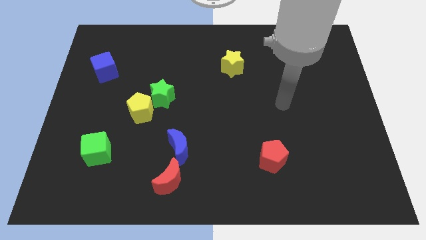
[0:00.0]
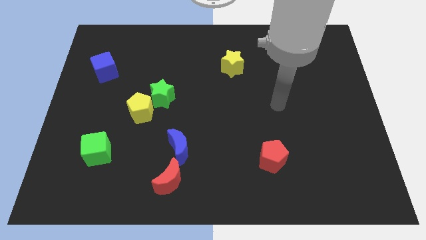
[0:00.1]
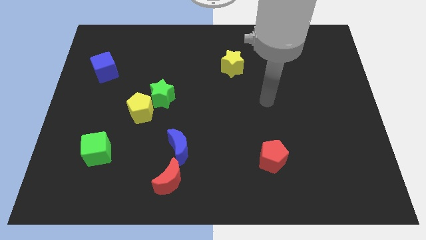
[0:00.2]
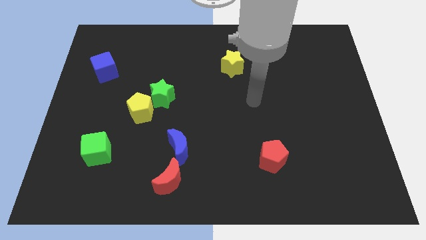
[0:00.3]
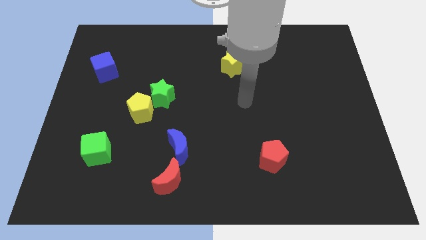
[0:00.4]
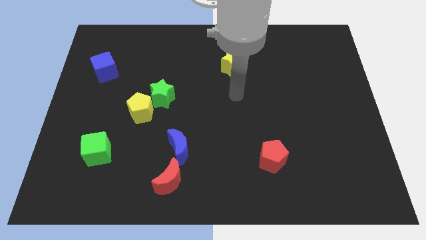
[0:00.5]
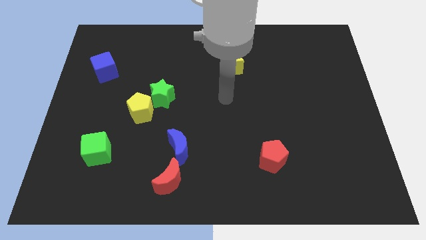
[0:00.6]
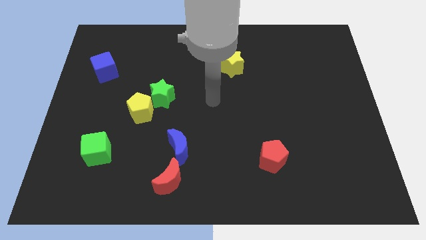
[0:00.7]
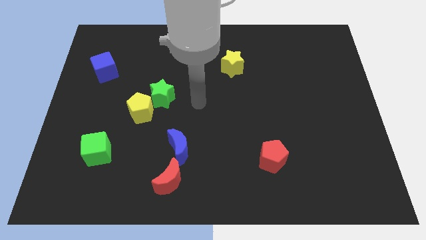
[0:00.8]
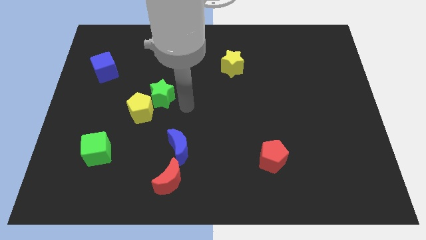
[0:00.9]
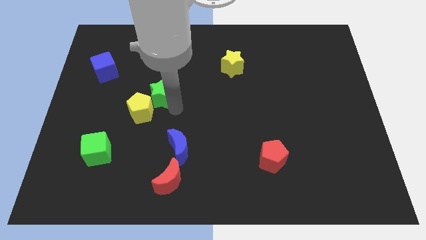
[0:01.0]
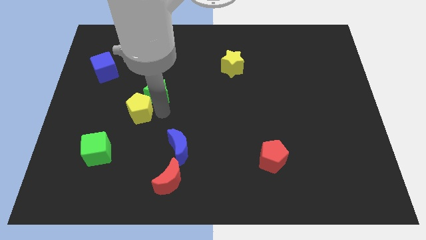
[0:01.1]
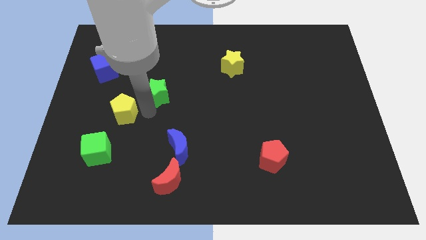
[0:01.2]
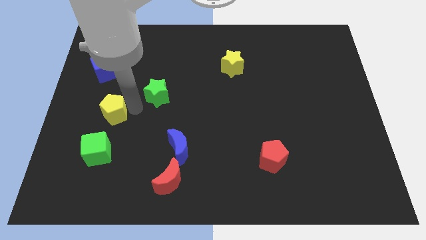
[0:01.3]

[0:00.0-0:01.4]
pull the green star apart from the yellow pentagon

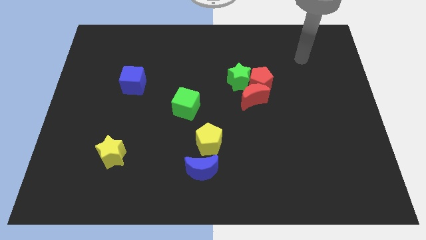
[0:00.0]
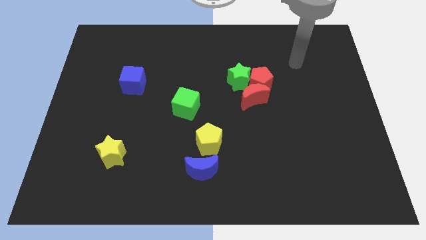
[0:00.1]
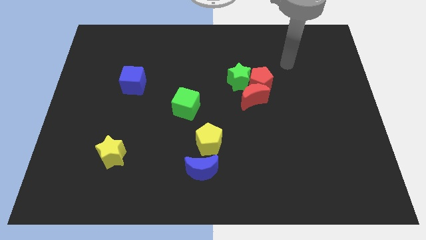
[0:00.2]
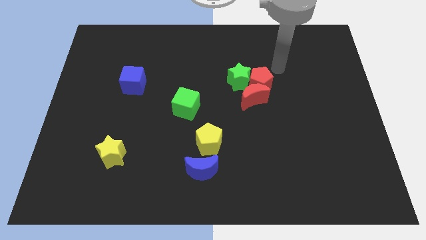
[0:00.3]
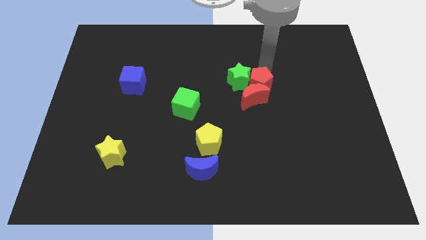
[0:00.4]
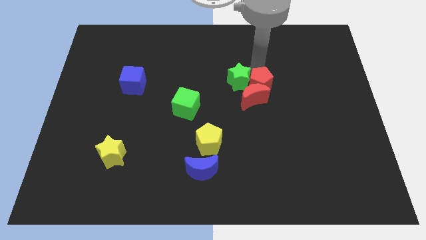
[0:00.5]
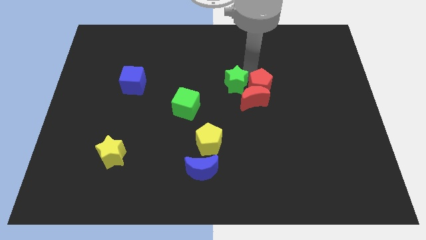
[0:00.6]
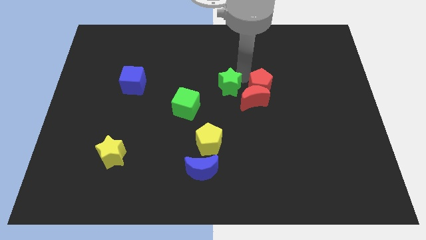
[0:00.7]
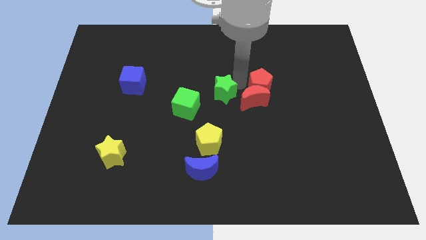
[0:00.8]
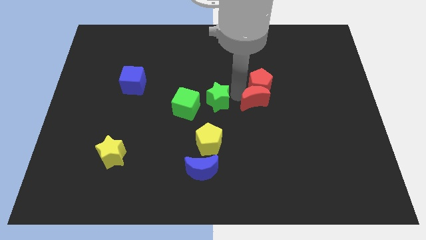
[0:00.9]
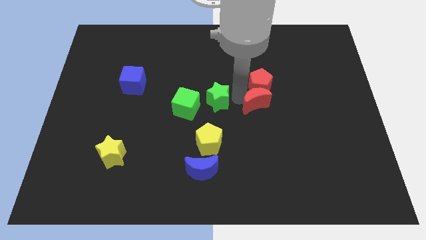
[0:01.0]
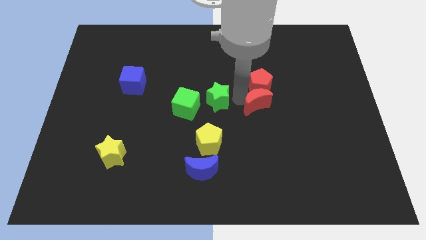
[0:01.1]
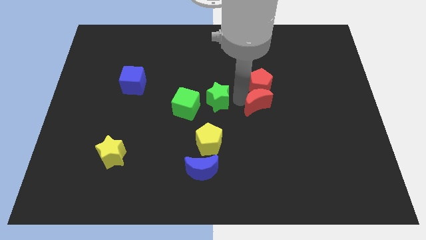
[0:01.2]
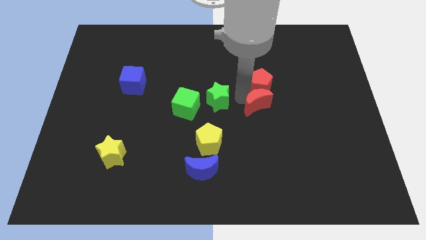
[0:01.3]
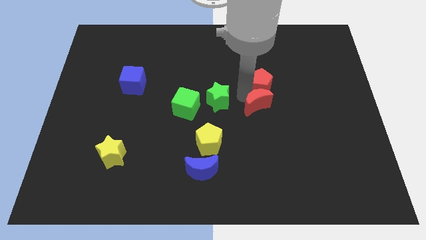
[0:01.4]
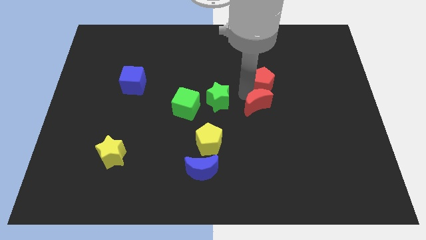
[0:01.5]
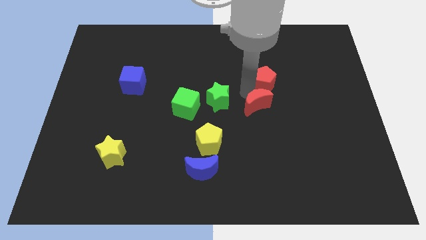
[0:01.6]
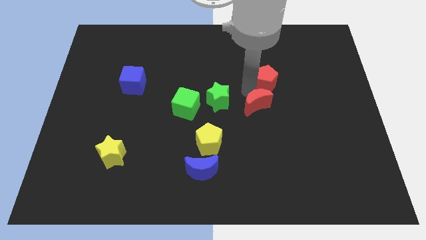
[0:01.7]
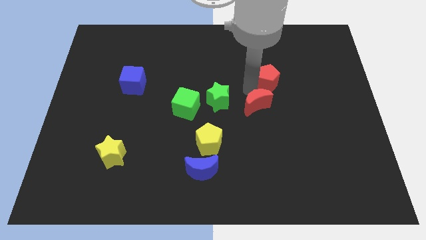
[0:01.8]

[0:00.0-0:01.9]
pull the red pentagon apart from the red moon and green star

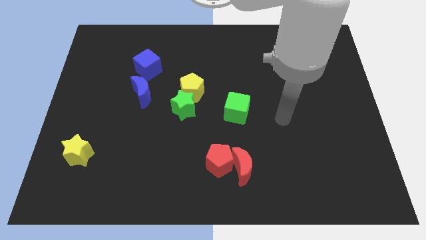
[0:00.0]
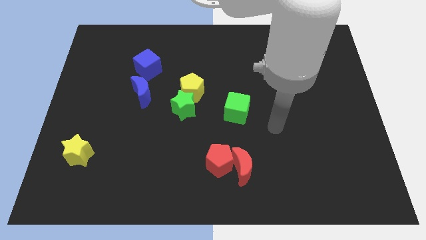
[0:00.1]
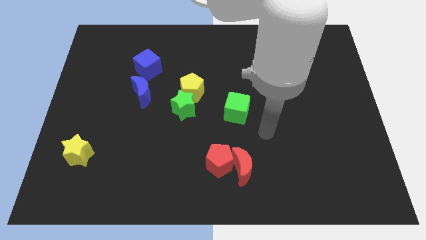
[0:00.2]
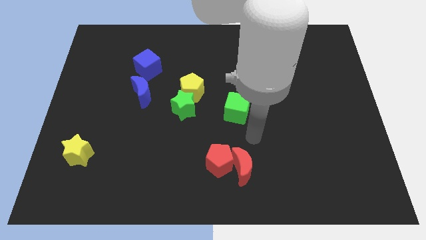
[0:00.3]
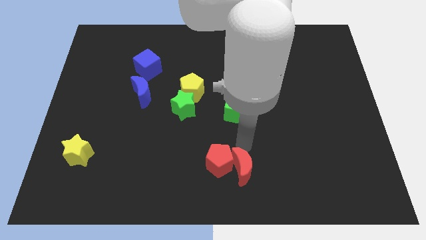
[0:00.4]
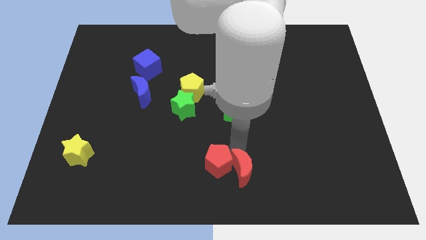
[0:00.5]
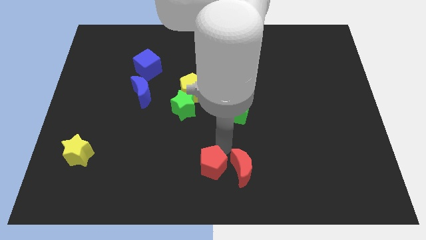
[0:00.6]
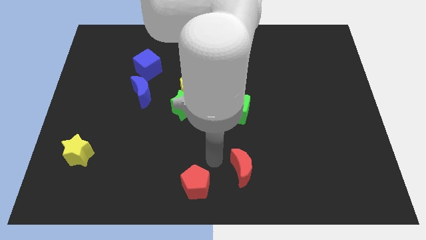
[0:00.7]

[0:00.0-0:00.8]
pull the red moon apart from the red pentagon

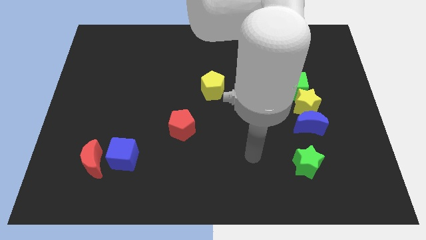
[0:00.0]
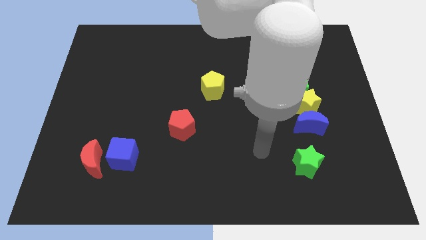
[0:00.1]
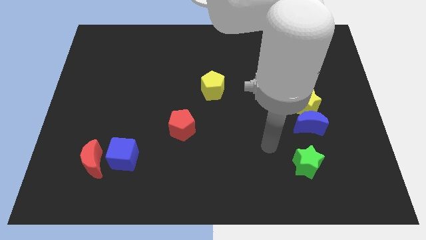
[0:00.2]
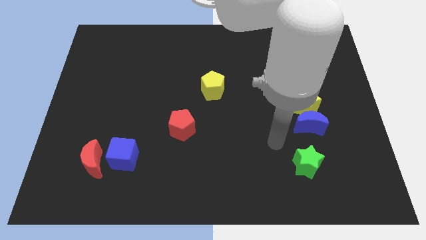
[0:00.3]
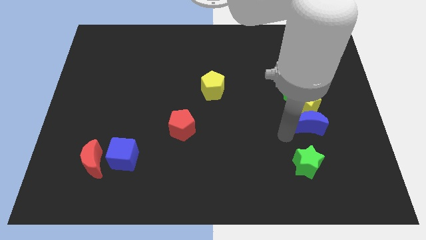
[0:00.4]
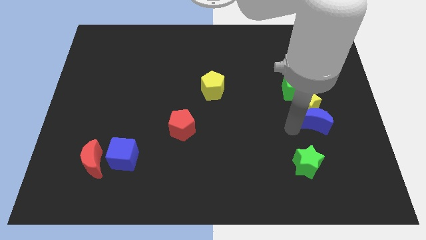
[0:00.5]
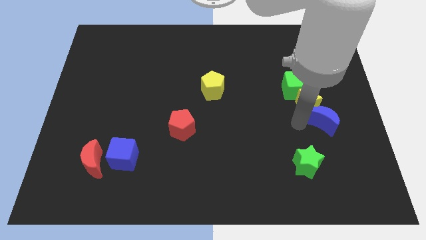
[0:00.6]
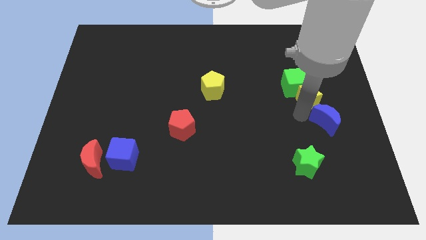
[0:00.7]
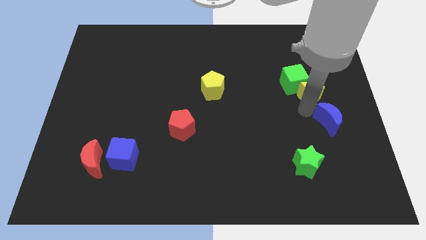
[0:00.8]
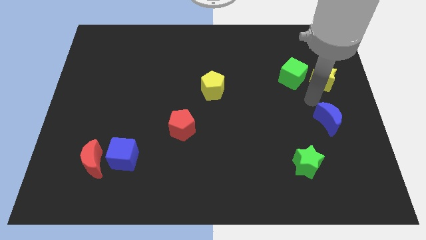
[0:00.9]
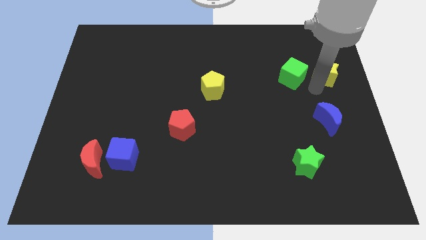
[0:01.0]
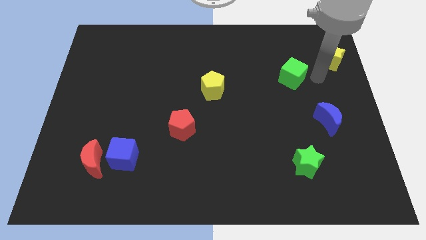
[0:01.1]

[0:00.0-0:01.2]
separate the green cube from the yellow star

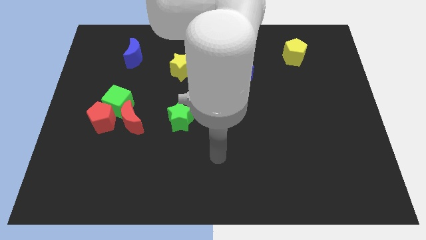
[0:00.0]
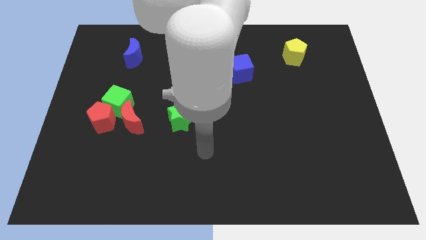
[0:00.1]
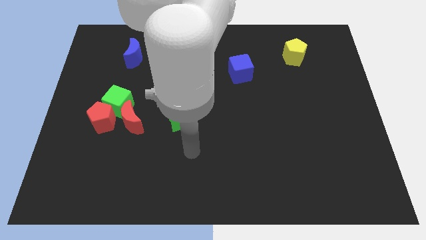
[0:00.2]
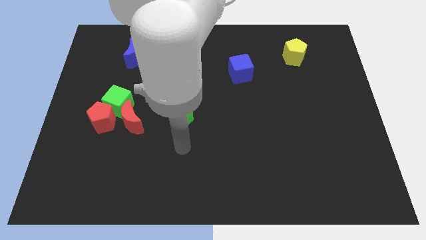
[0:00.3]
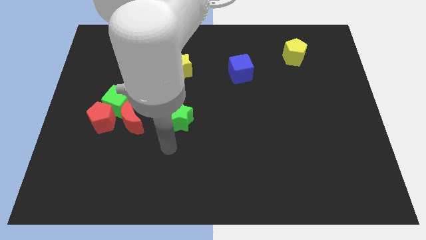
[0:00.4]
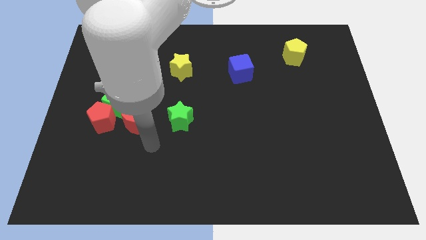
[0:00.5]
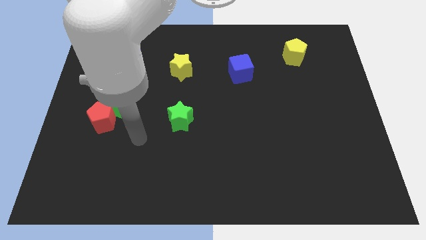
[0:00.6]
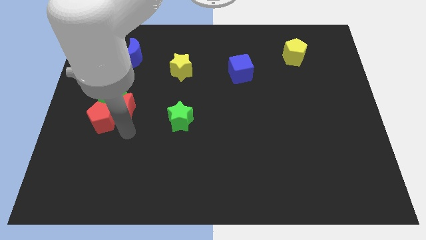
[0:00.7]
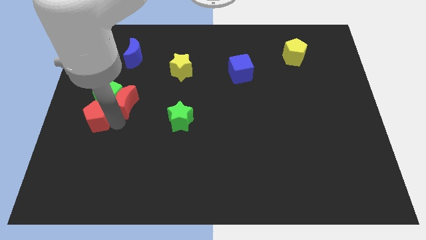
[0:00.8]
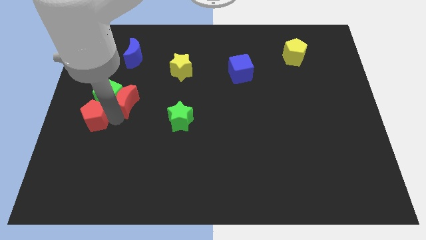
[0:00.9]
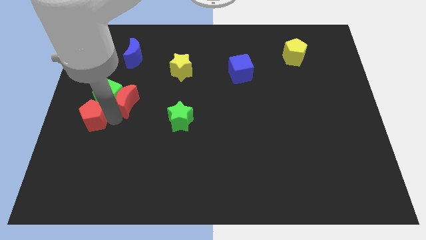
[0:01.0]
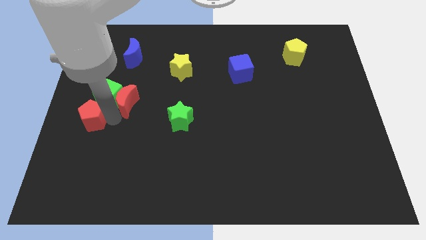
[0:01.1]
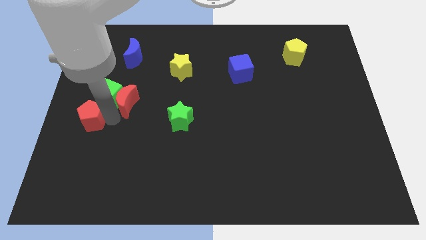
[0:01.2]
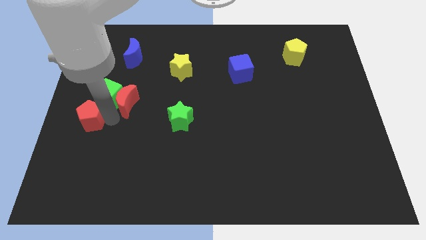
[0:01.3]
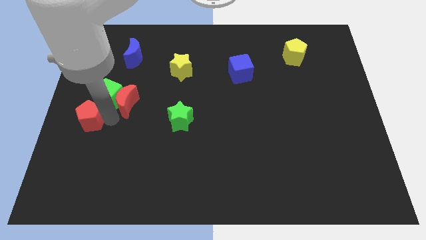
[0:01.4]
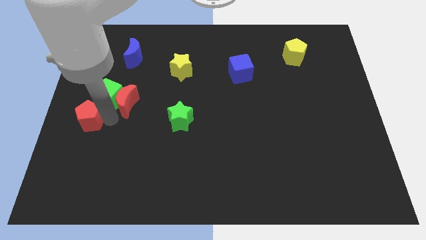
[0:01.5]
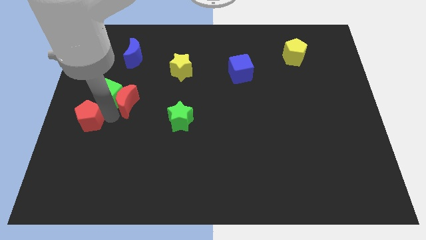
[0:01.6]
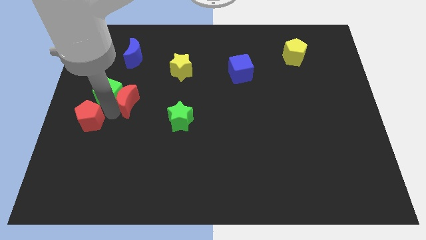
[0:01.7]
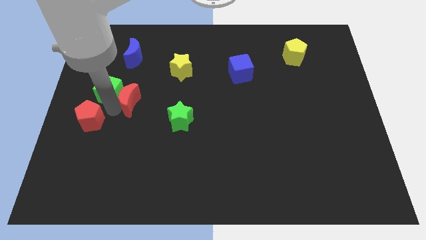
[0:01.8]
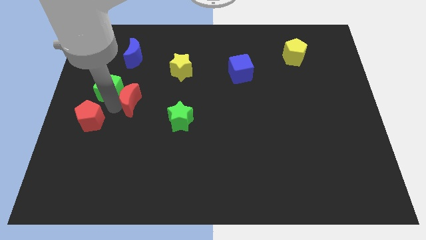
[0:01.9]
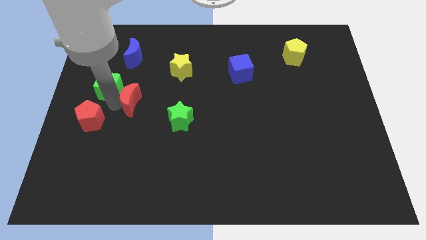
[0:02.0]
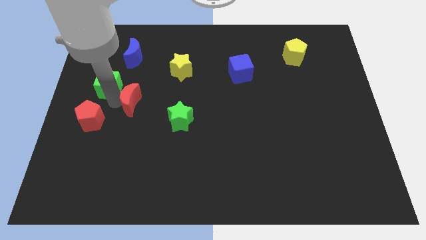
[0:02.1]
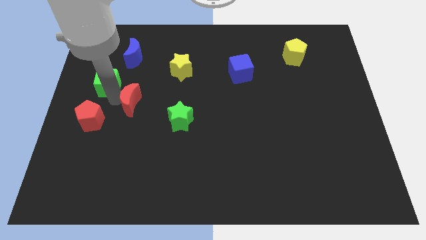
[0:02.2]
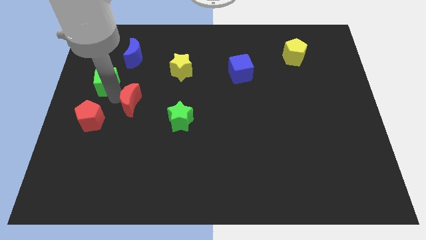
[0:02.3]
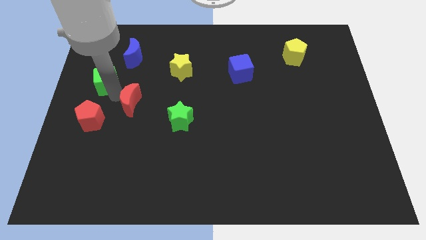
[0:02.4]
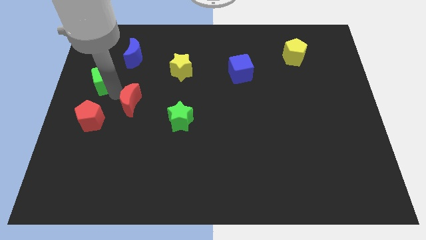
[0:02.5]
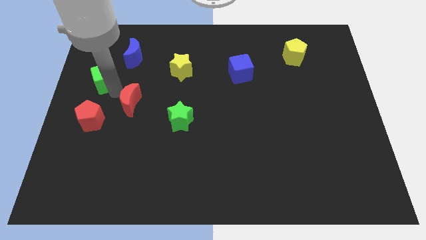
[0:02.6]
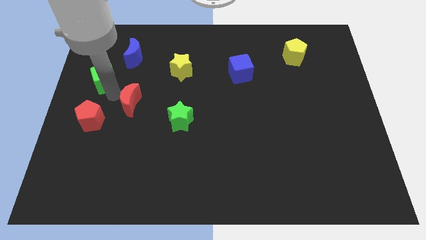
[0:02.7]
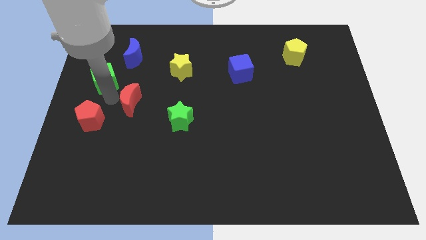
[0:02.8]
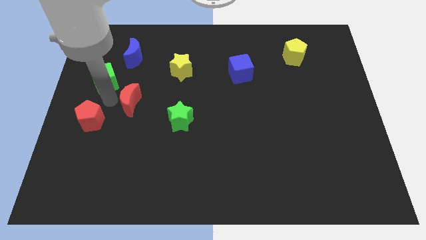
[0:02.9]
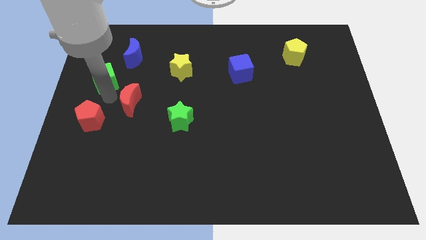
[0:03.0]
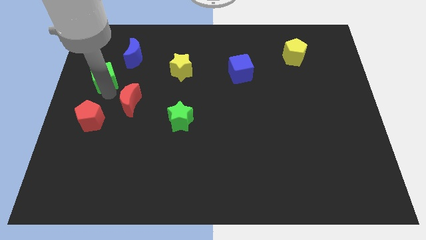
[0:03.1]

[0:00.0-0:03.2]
separate the green cube from the red pentagon and red moon

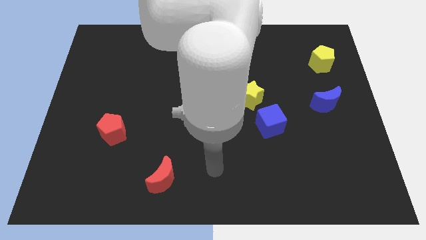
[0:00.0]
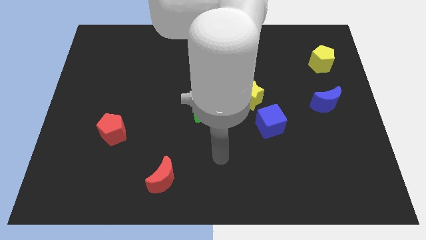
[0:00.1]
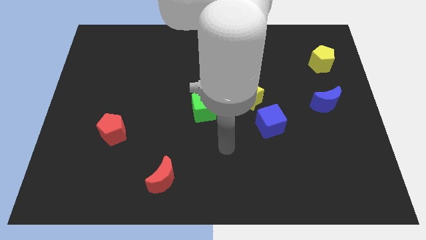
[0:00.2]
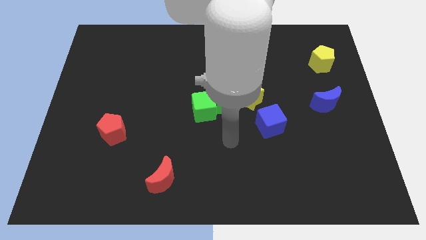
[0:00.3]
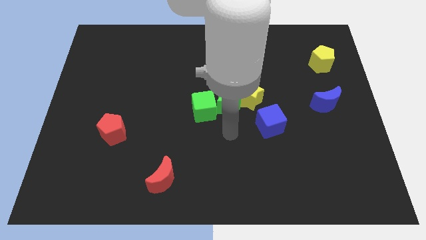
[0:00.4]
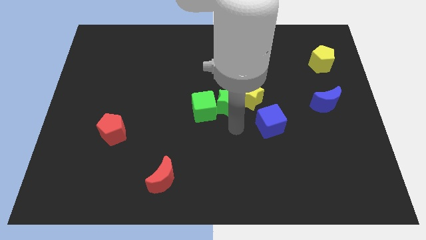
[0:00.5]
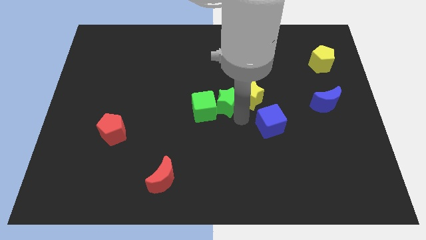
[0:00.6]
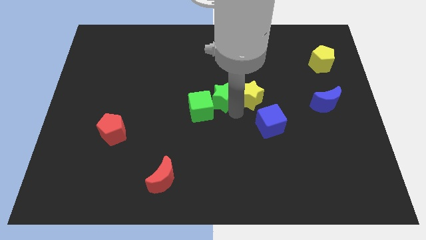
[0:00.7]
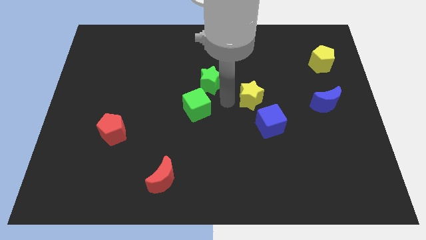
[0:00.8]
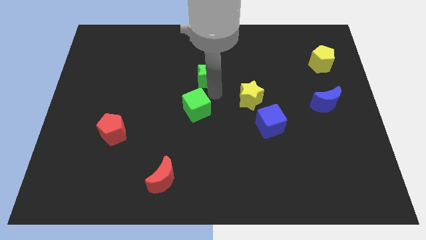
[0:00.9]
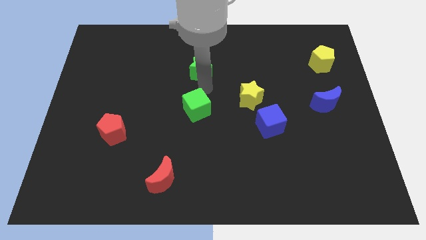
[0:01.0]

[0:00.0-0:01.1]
move the green cube away from the green star
